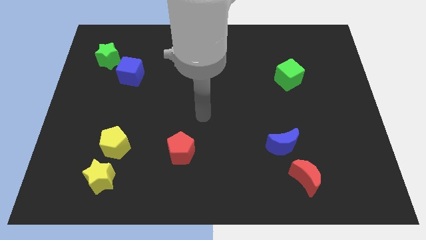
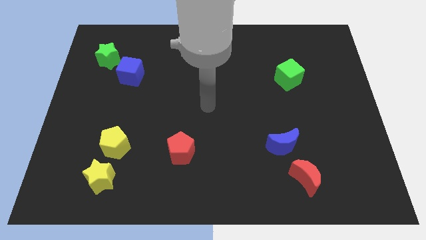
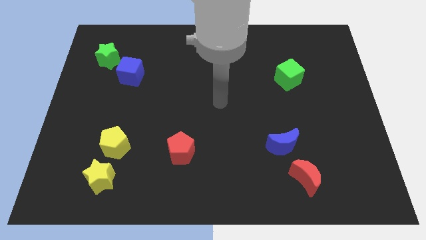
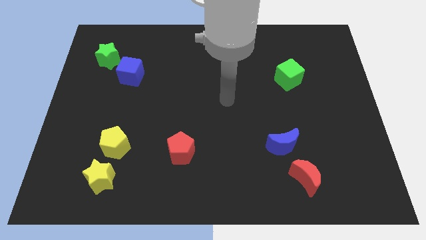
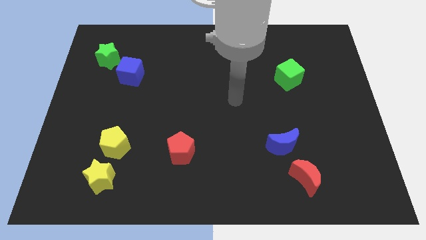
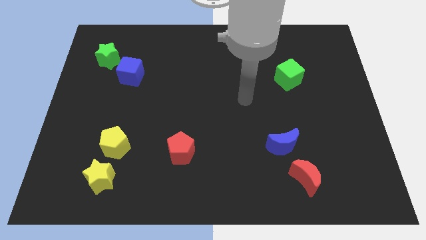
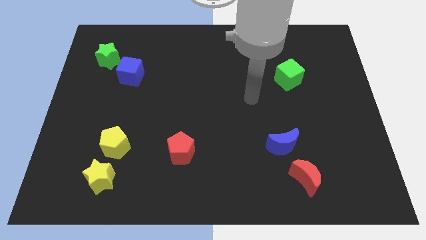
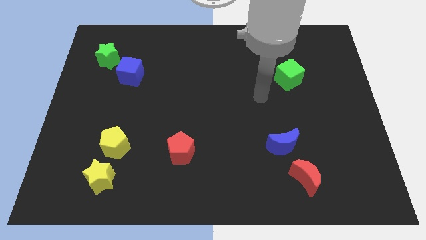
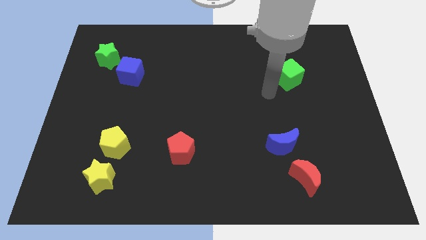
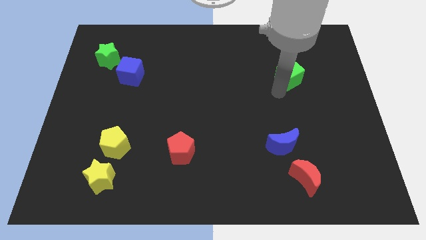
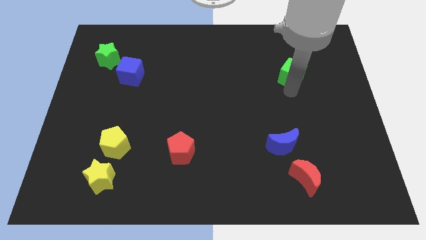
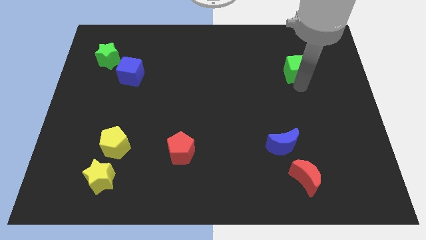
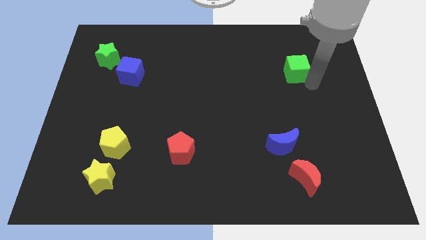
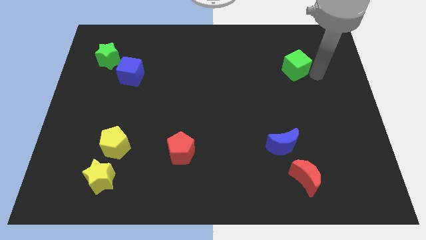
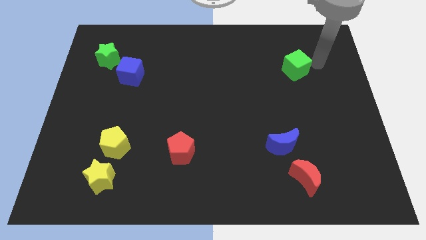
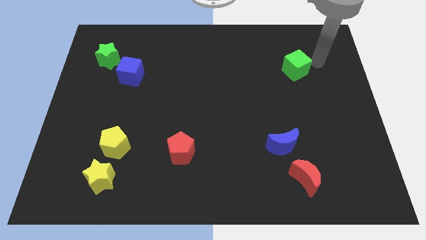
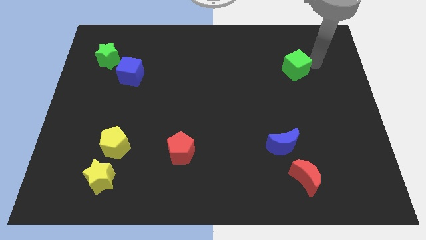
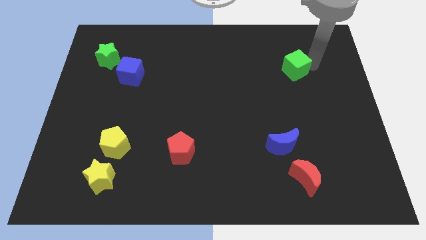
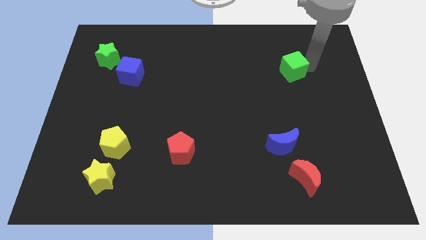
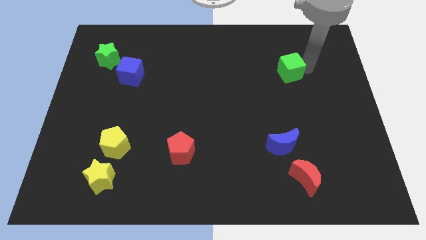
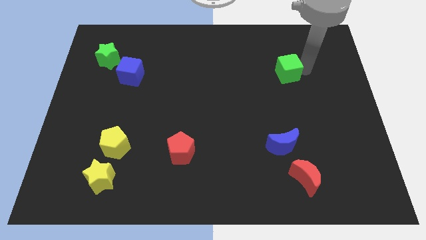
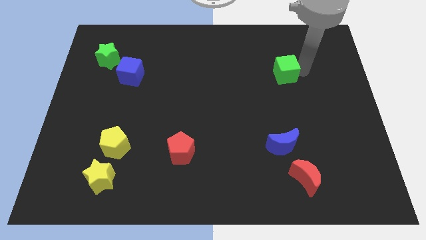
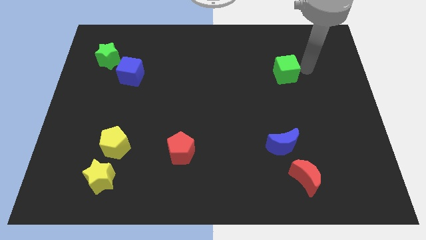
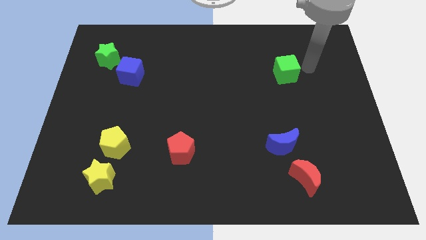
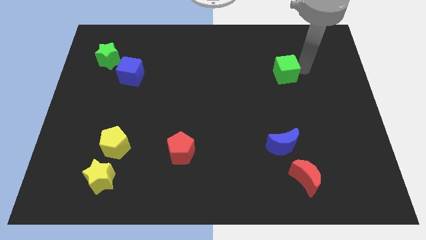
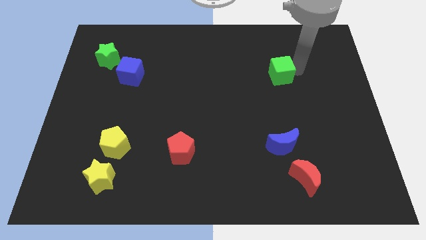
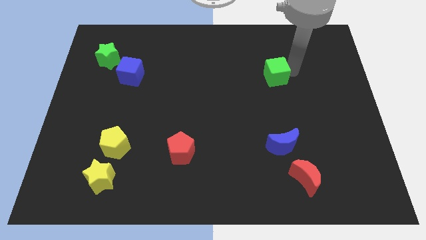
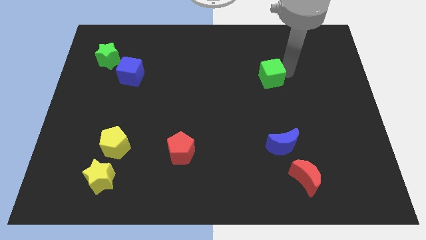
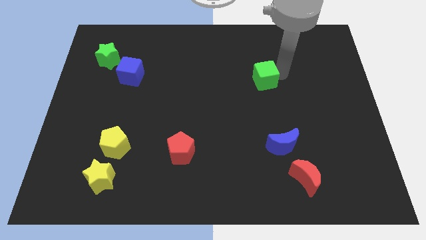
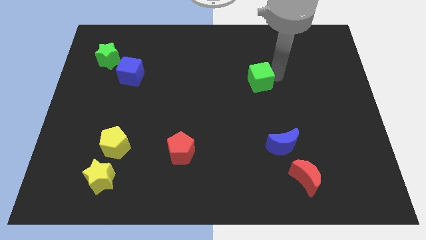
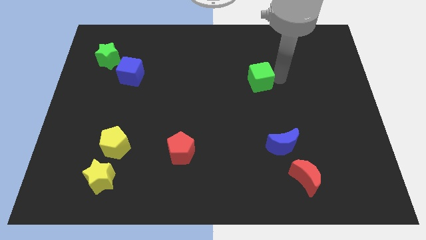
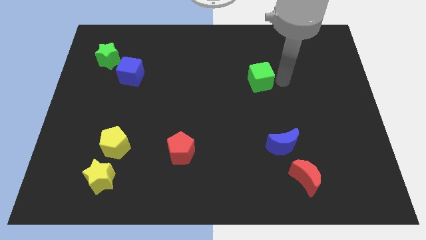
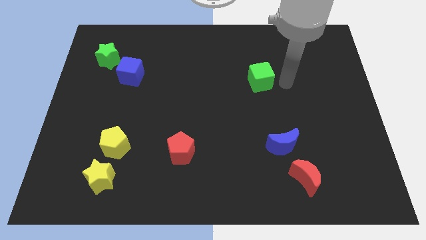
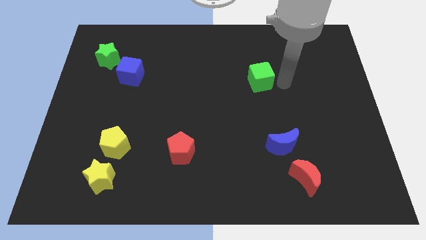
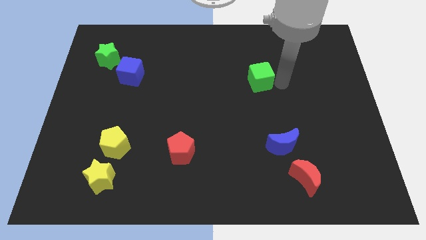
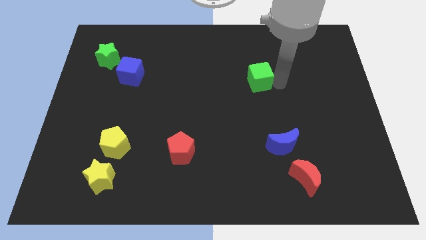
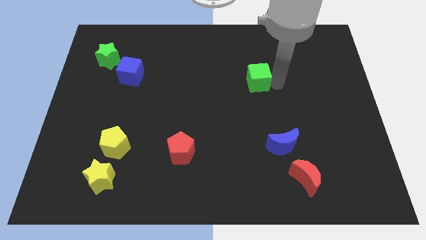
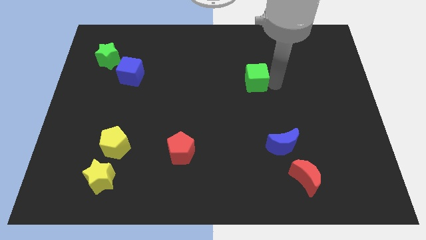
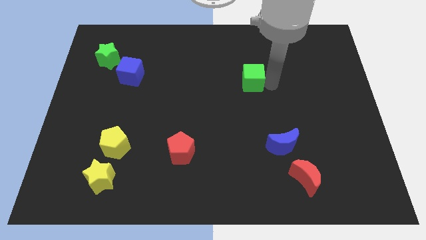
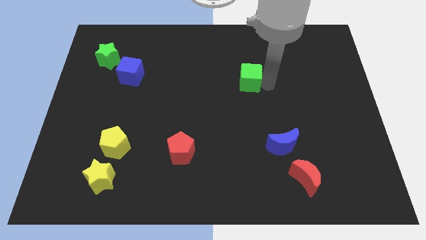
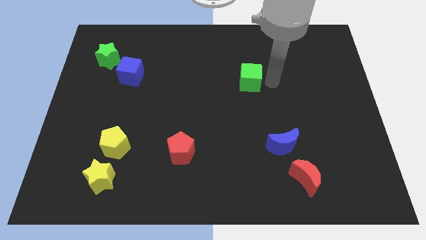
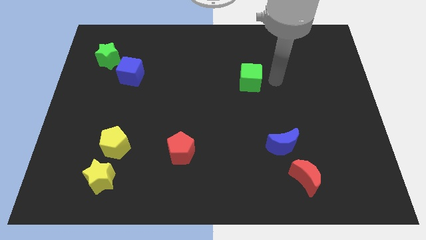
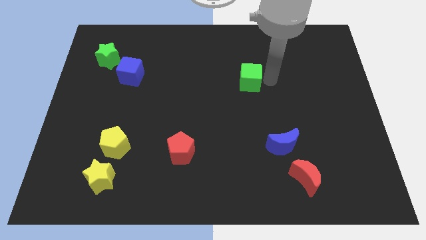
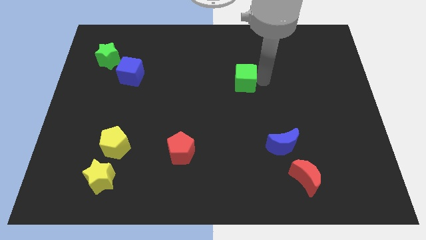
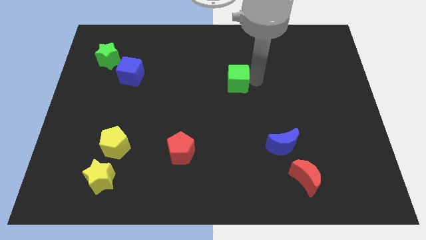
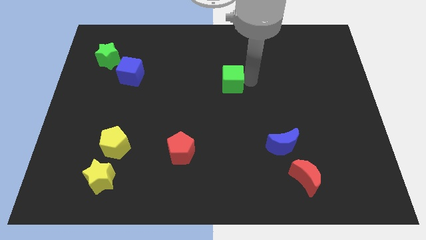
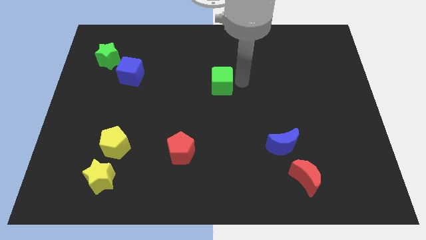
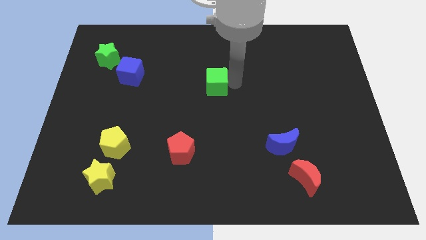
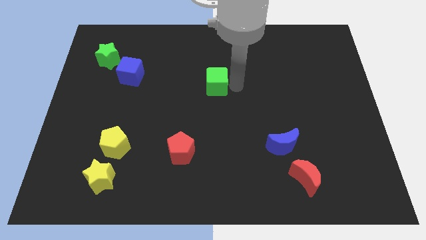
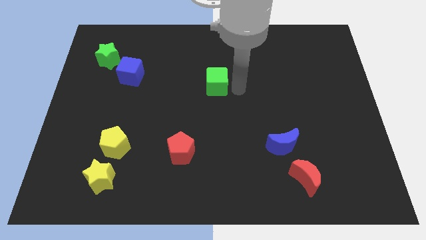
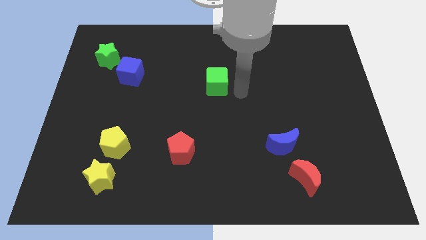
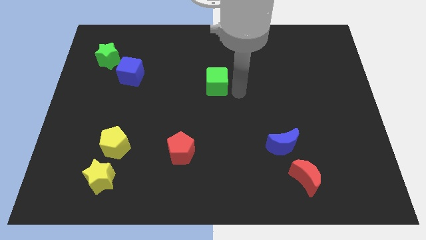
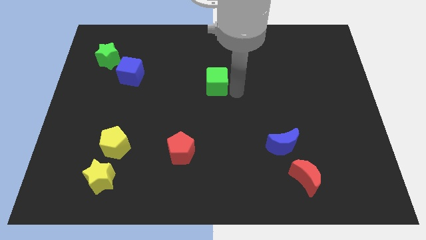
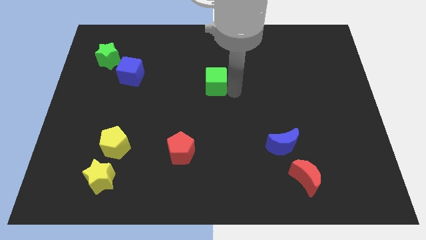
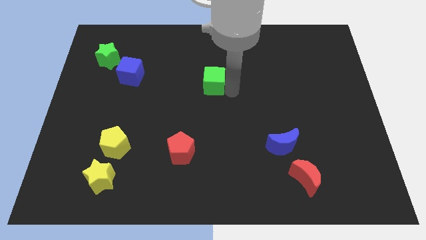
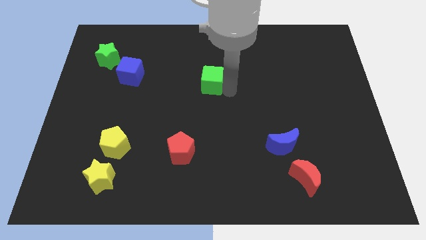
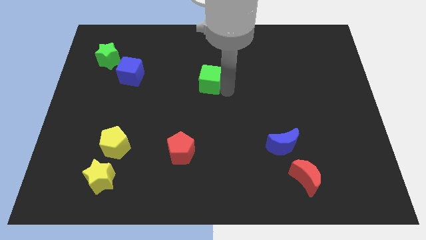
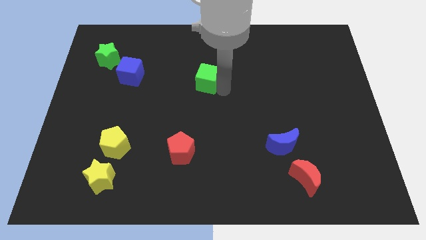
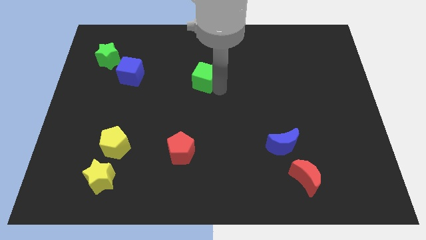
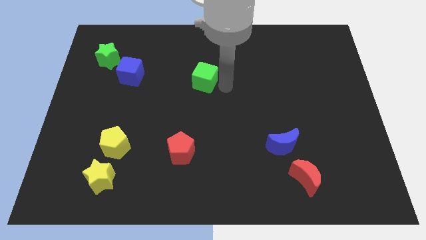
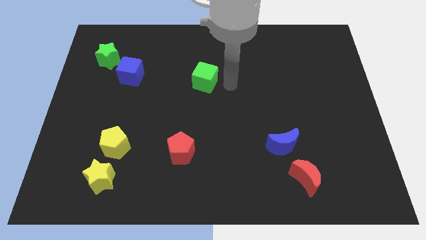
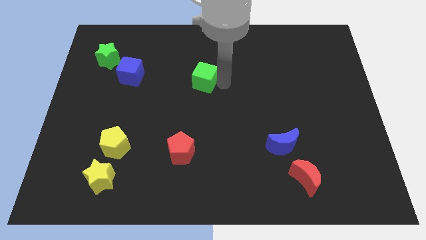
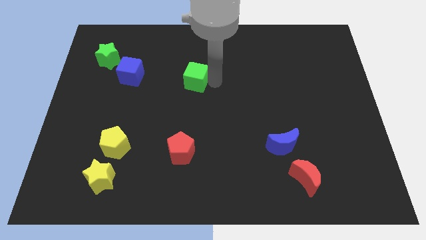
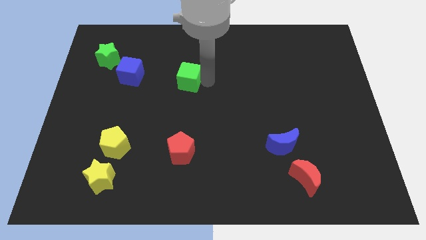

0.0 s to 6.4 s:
slide the green cube right of the blue cube
